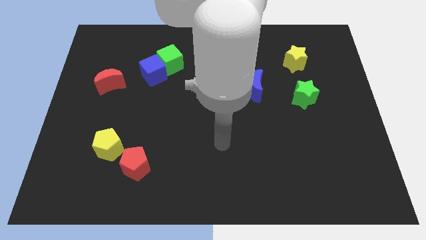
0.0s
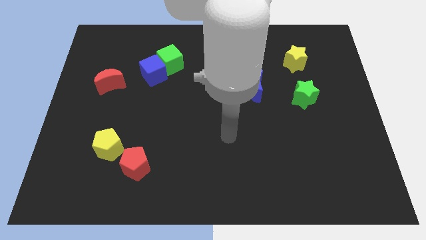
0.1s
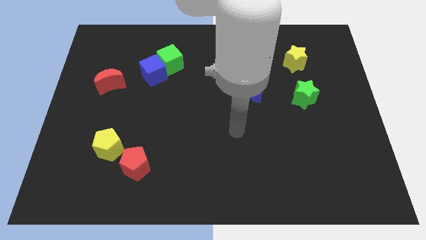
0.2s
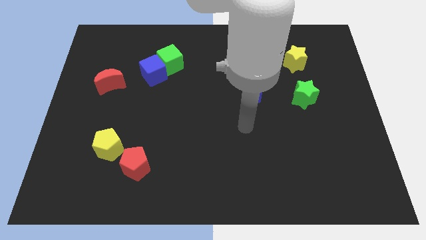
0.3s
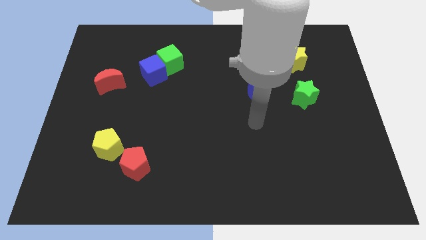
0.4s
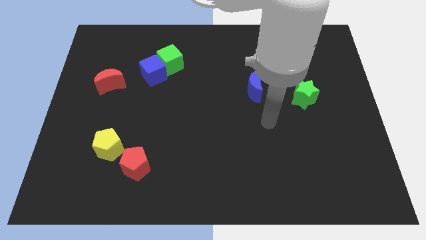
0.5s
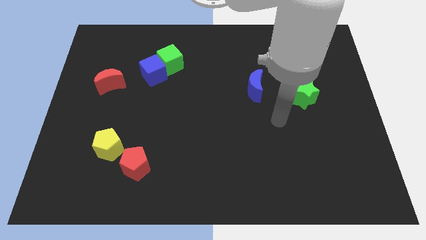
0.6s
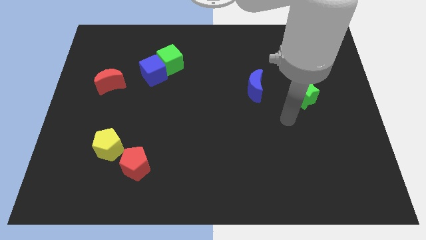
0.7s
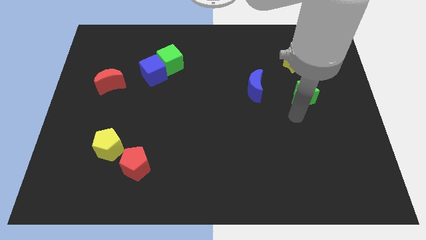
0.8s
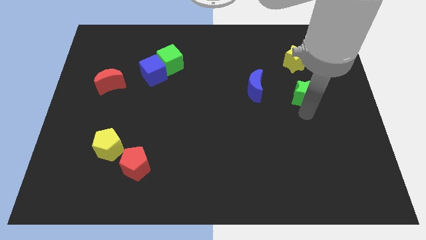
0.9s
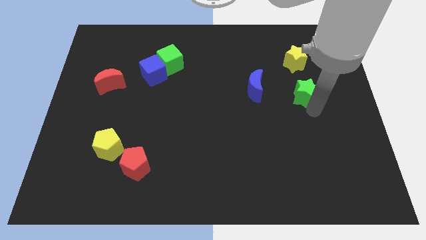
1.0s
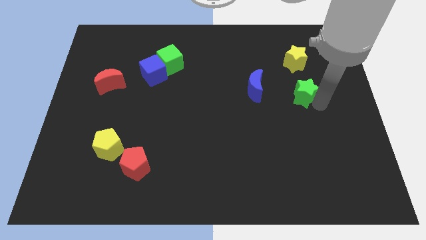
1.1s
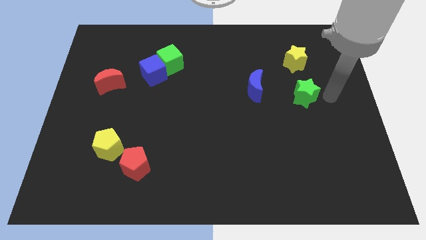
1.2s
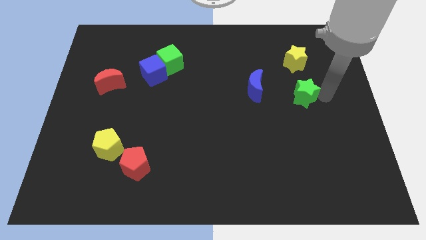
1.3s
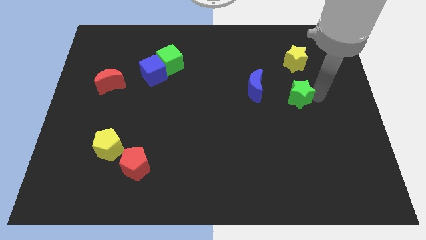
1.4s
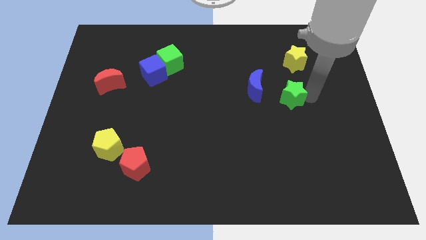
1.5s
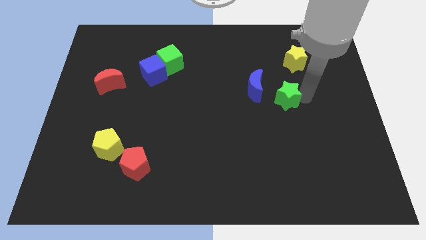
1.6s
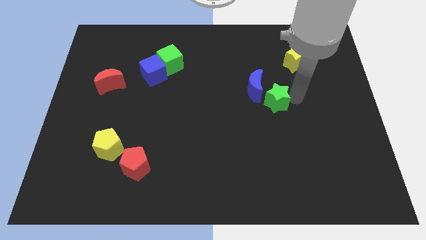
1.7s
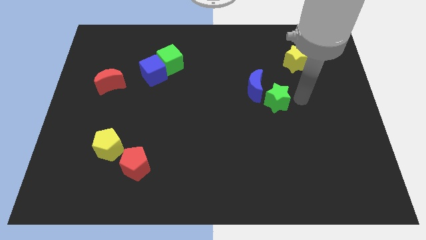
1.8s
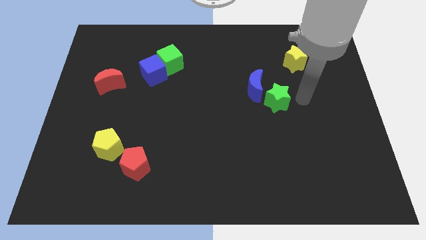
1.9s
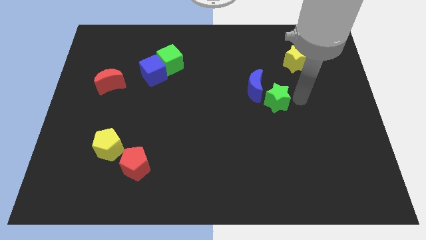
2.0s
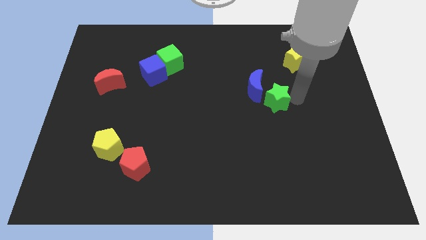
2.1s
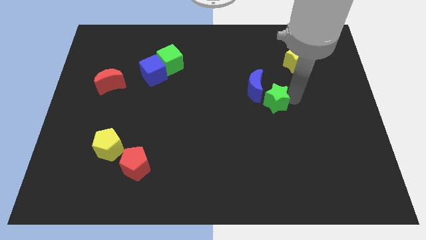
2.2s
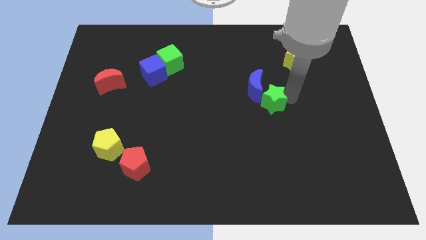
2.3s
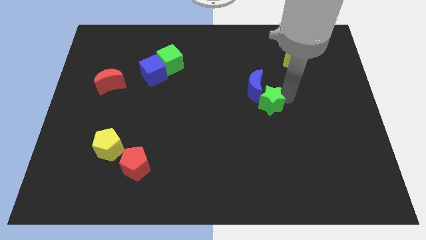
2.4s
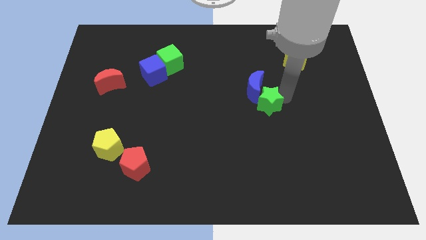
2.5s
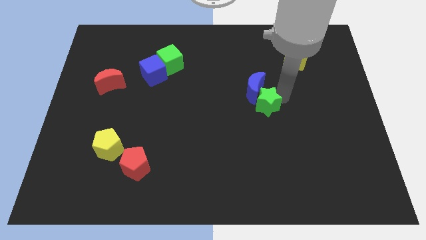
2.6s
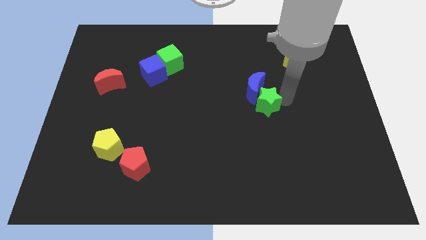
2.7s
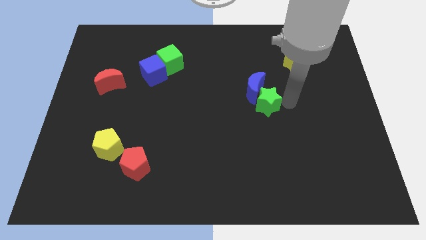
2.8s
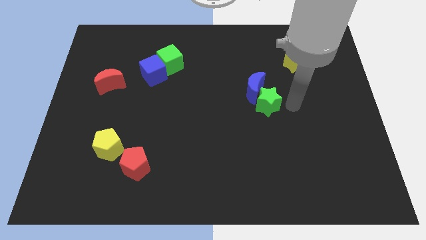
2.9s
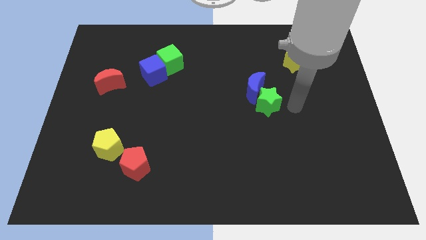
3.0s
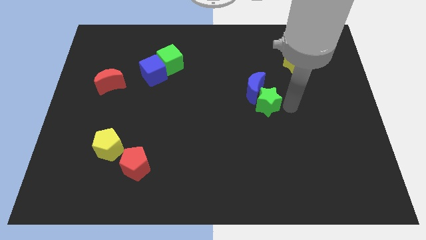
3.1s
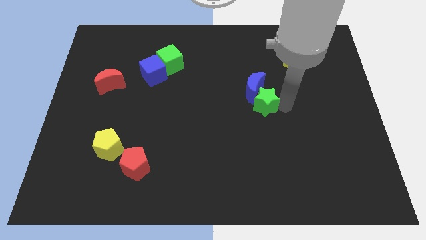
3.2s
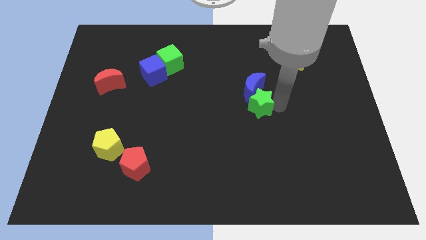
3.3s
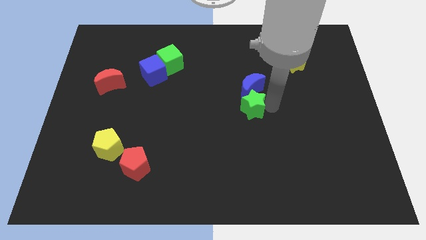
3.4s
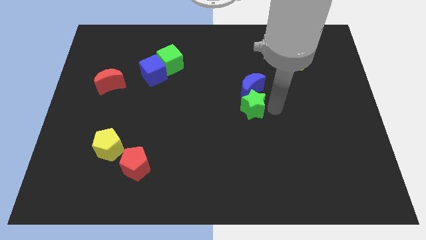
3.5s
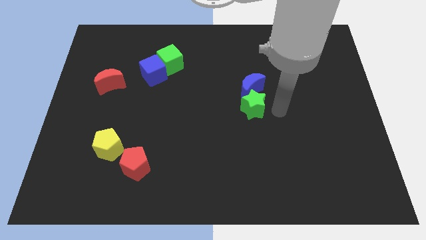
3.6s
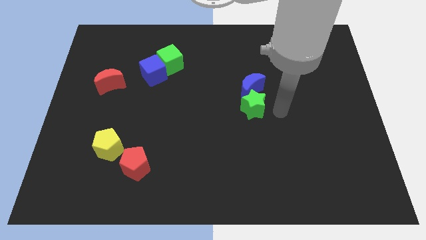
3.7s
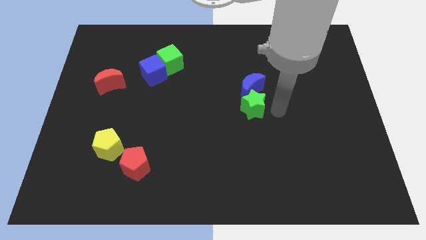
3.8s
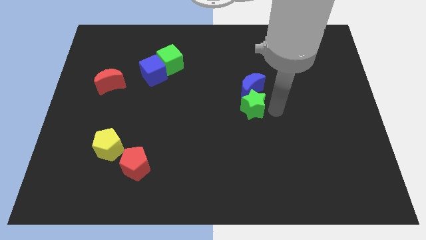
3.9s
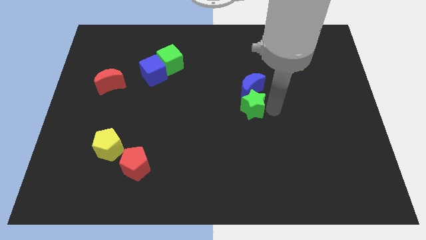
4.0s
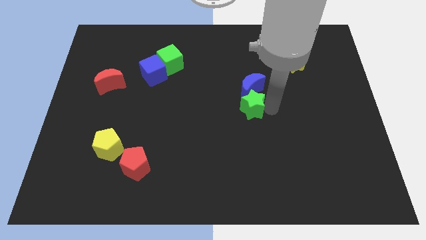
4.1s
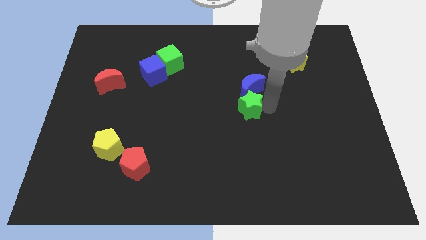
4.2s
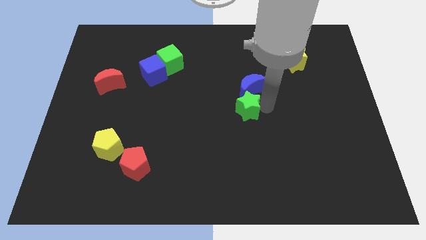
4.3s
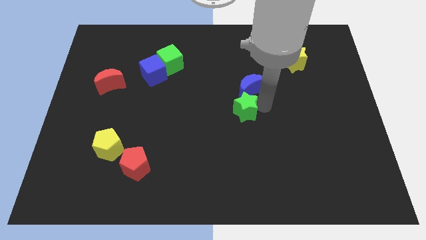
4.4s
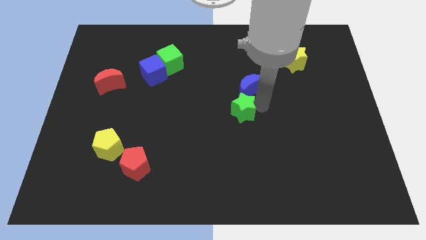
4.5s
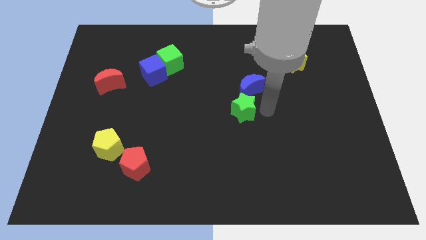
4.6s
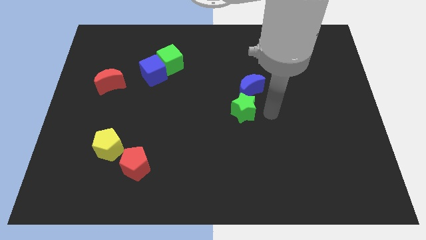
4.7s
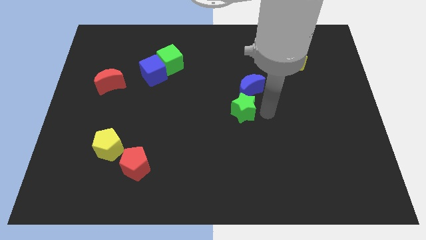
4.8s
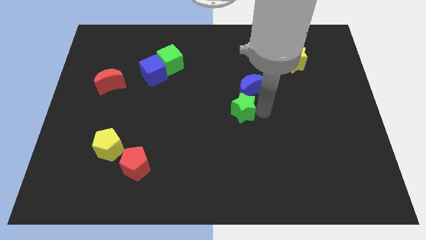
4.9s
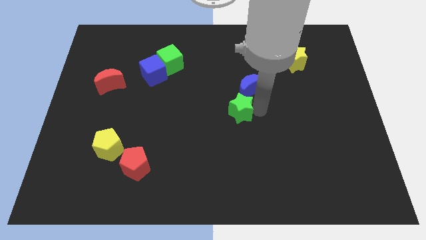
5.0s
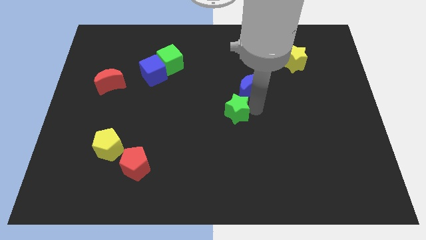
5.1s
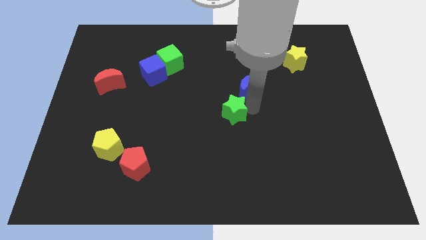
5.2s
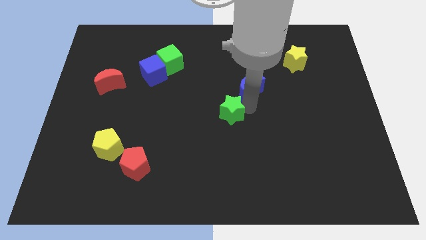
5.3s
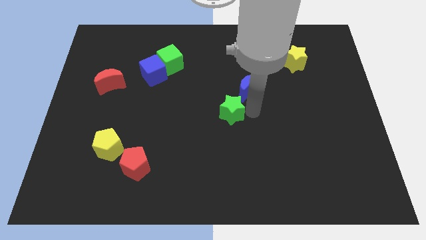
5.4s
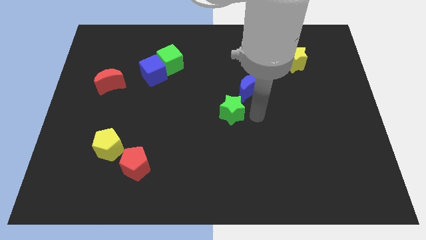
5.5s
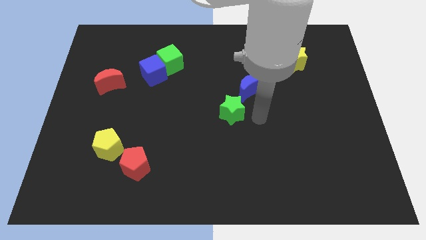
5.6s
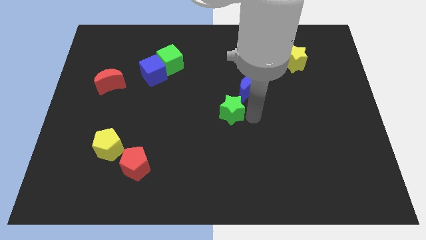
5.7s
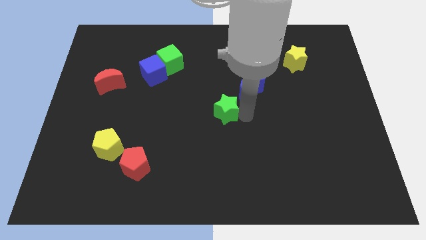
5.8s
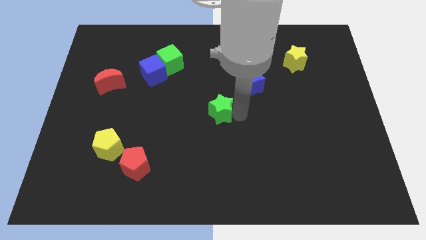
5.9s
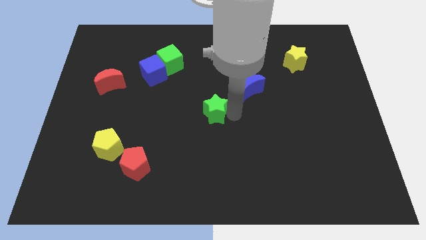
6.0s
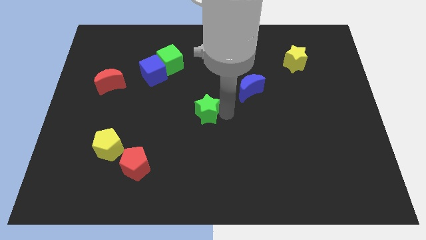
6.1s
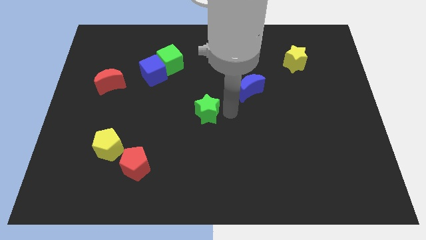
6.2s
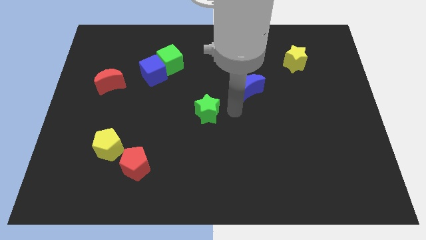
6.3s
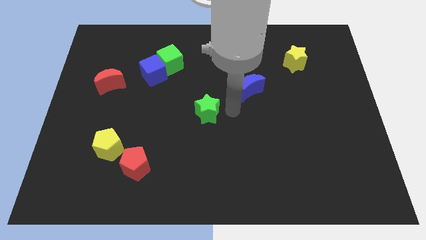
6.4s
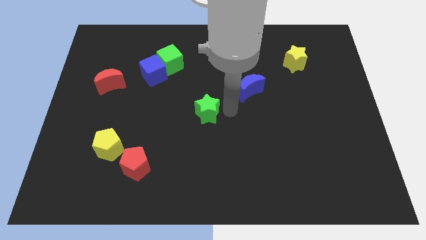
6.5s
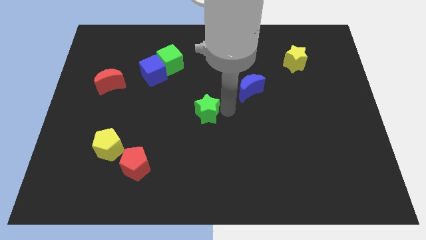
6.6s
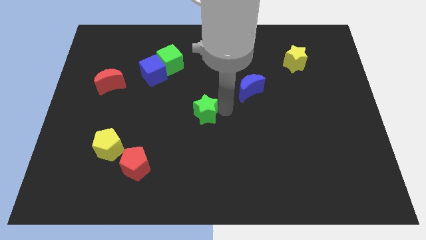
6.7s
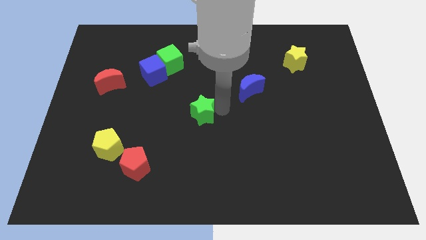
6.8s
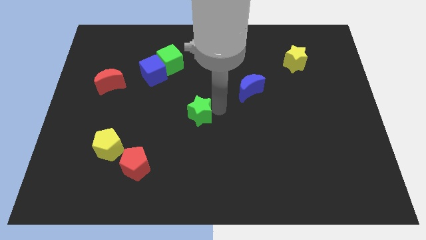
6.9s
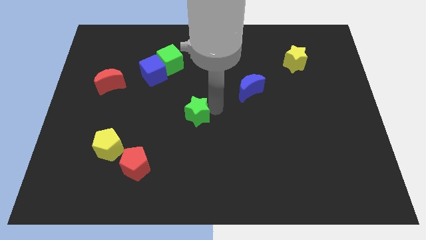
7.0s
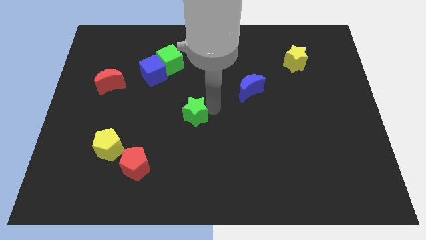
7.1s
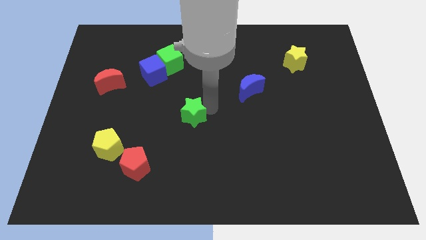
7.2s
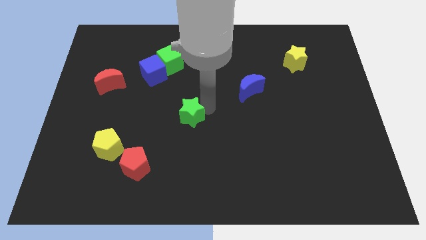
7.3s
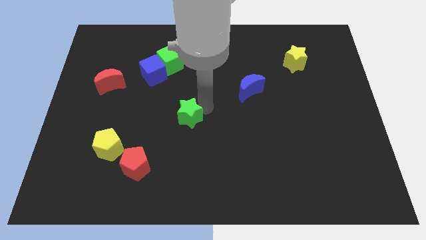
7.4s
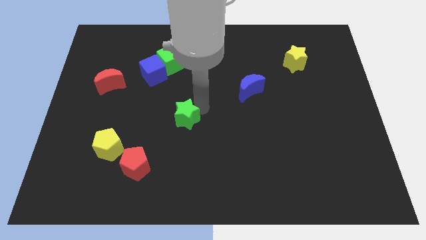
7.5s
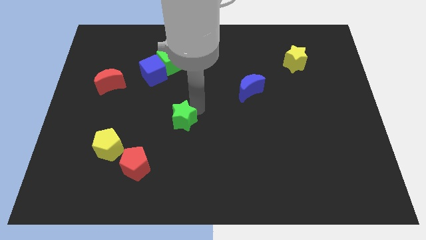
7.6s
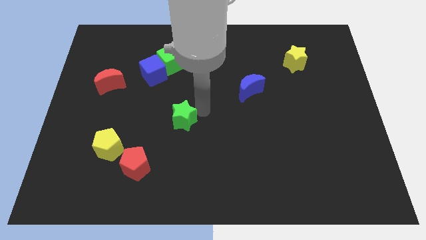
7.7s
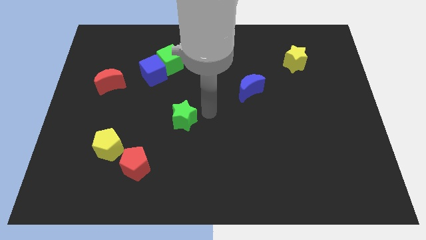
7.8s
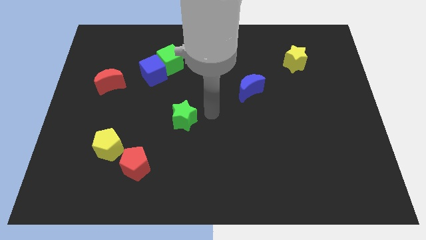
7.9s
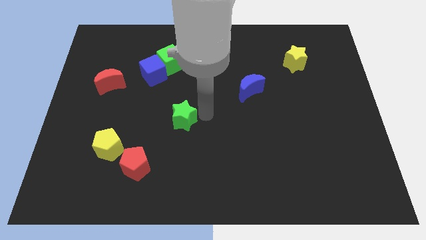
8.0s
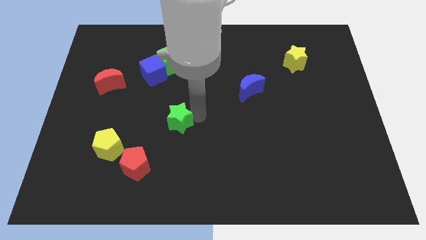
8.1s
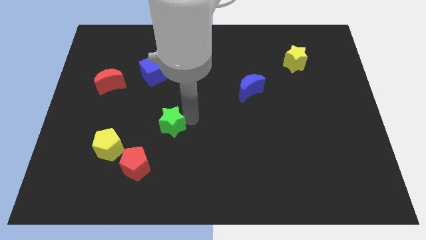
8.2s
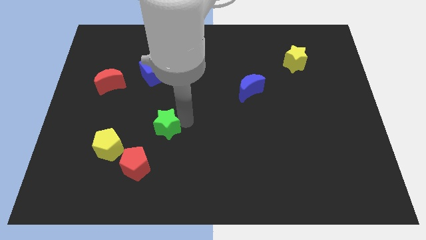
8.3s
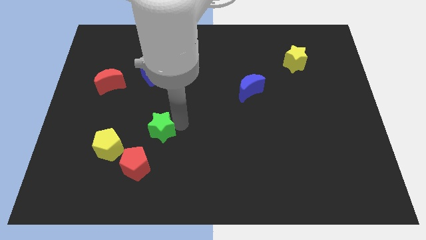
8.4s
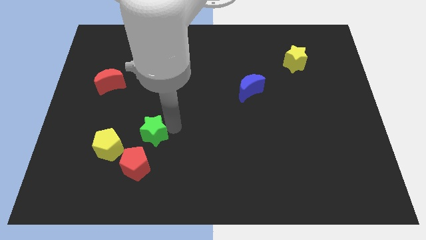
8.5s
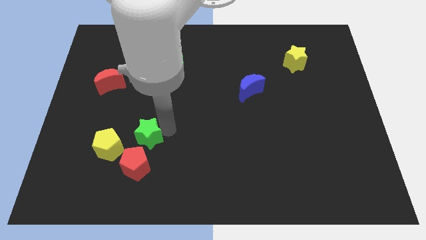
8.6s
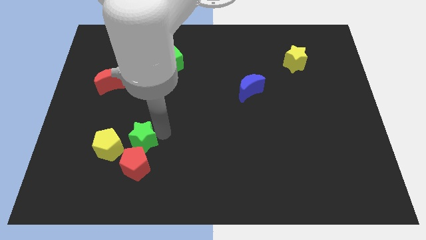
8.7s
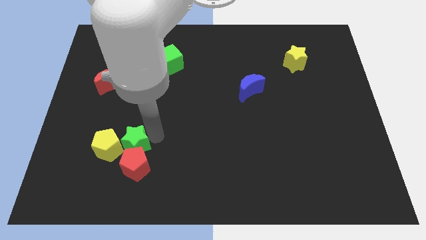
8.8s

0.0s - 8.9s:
put the green star close to the yellow pentagon
